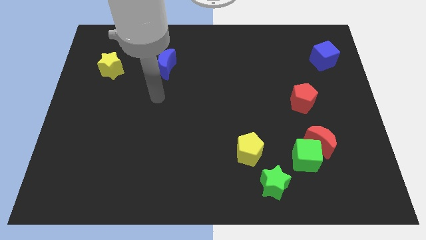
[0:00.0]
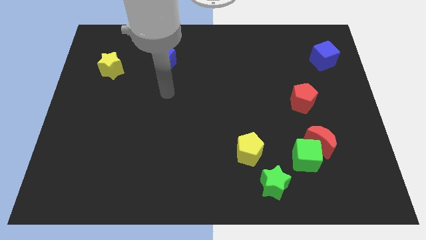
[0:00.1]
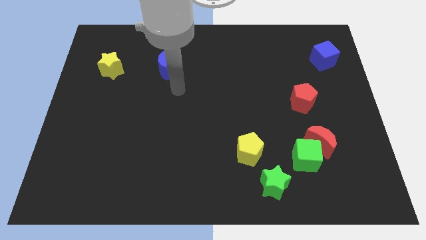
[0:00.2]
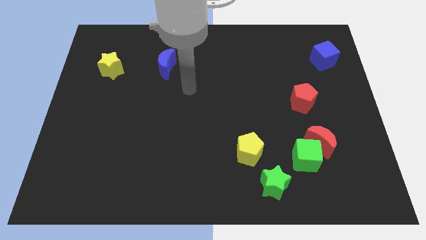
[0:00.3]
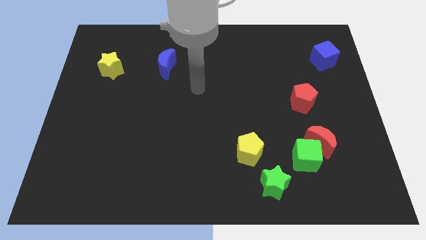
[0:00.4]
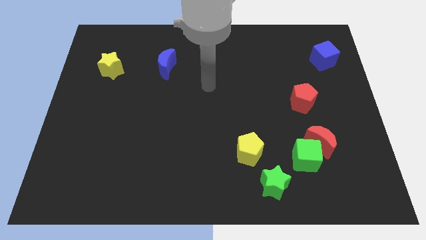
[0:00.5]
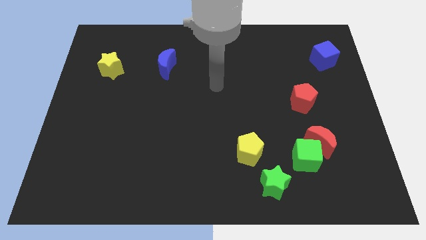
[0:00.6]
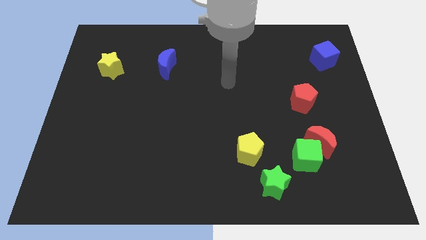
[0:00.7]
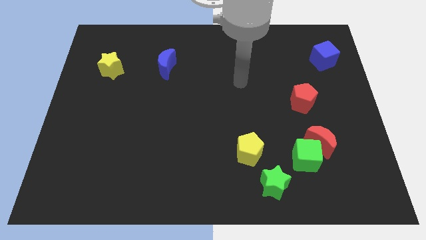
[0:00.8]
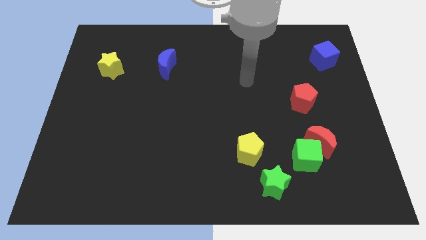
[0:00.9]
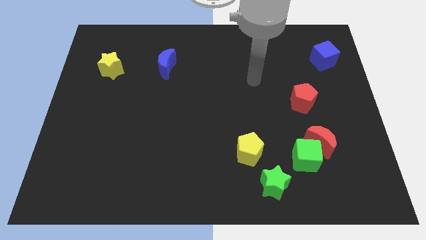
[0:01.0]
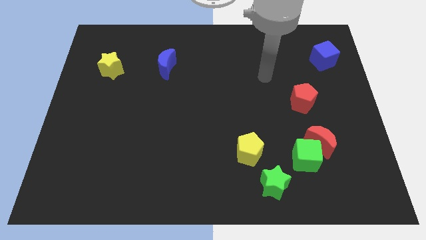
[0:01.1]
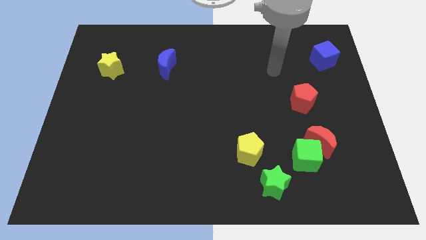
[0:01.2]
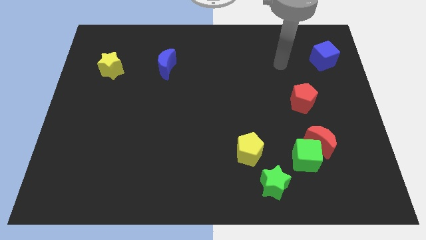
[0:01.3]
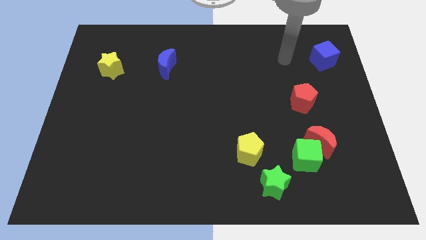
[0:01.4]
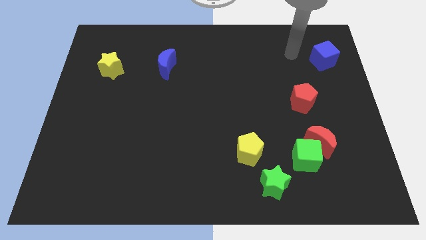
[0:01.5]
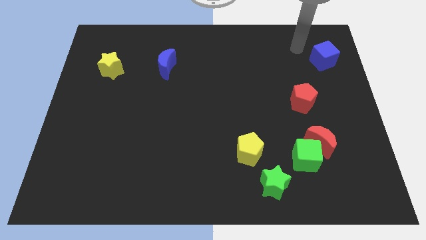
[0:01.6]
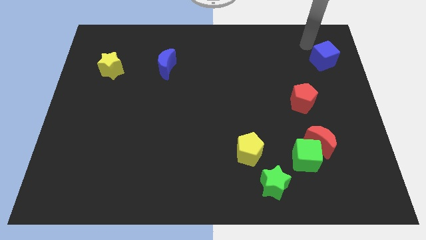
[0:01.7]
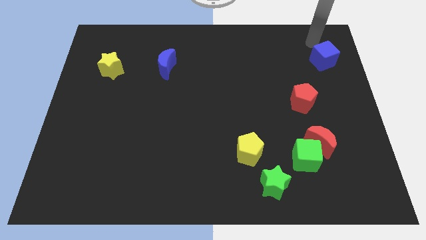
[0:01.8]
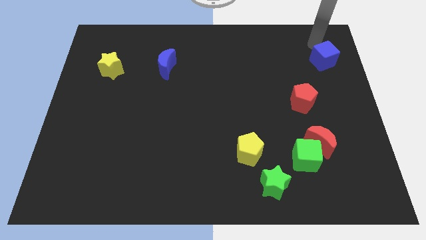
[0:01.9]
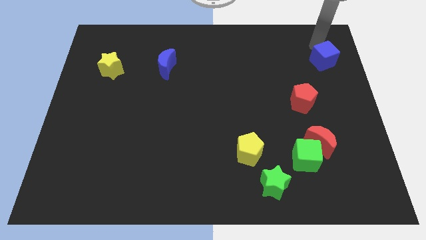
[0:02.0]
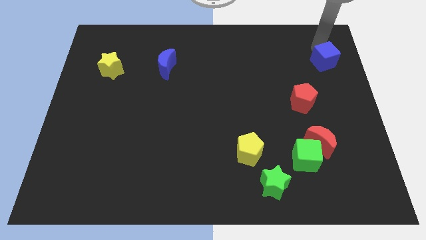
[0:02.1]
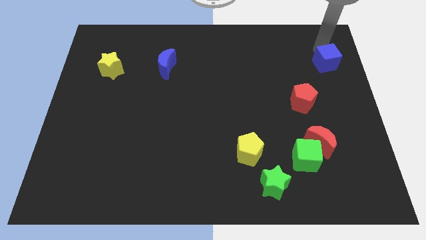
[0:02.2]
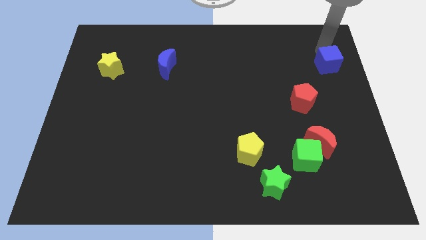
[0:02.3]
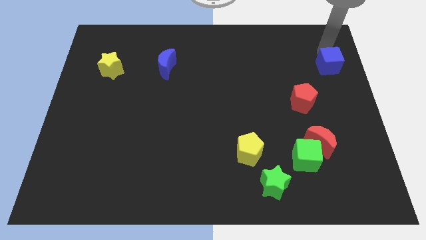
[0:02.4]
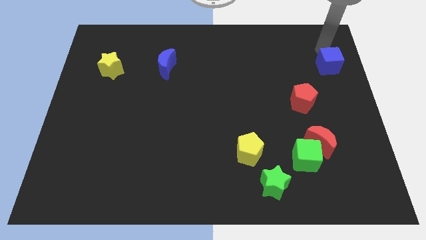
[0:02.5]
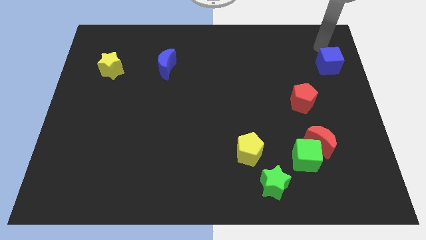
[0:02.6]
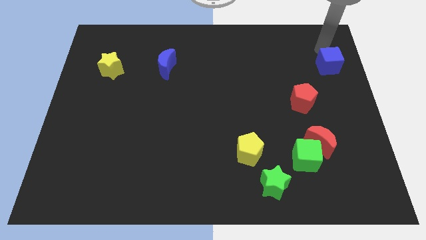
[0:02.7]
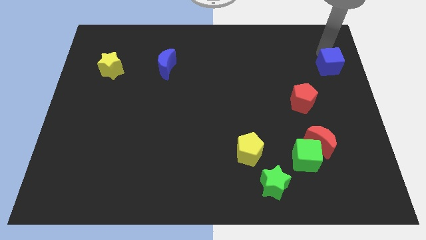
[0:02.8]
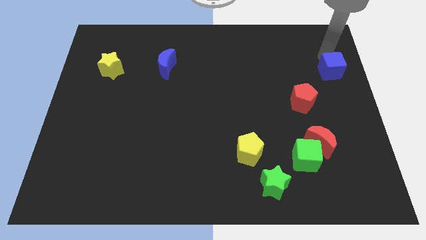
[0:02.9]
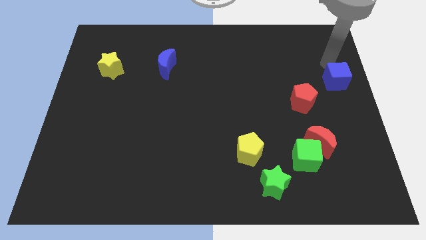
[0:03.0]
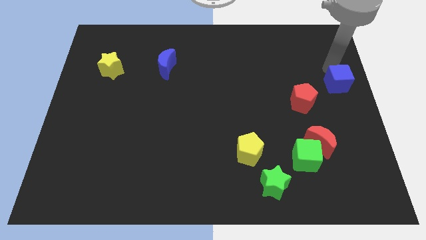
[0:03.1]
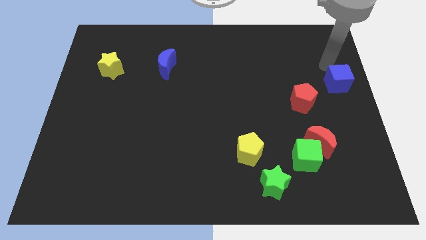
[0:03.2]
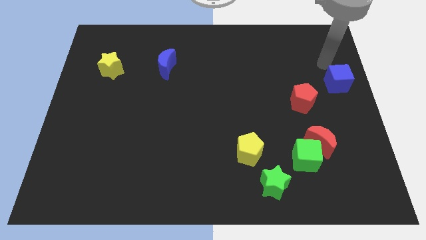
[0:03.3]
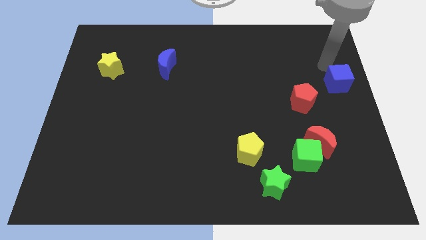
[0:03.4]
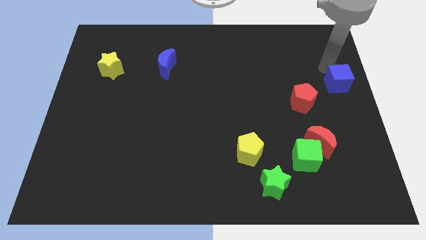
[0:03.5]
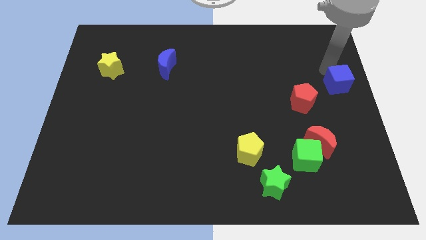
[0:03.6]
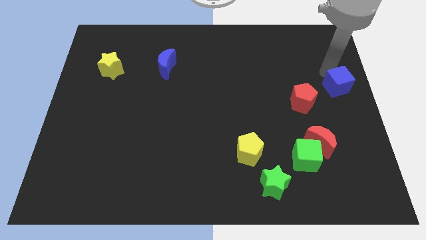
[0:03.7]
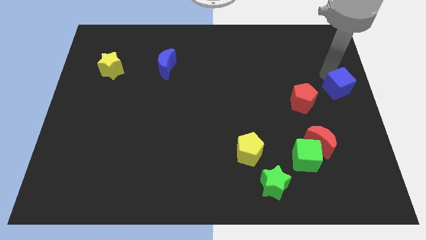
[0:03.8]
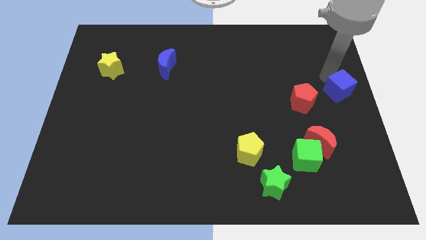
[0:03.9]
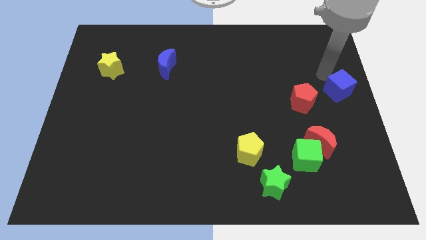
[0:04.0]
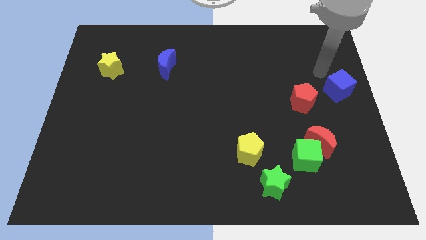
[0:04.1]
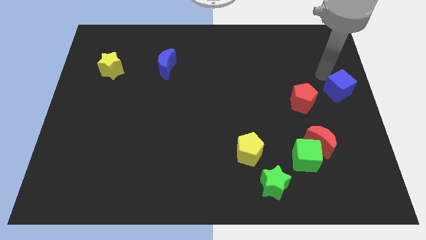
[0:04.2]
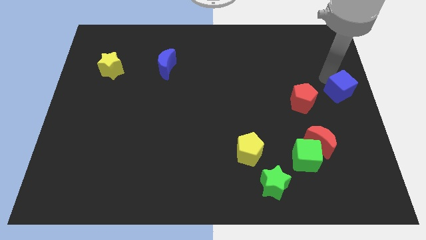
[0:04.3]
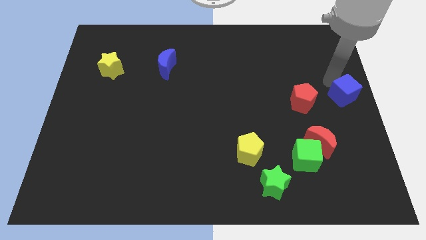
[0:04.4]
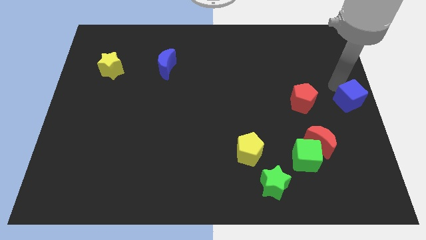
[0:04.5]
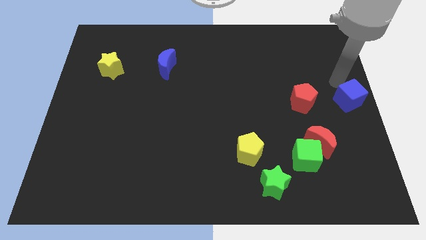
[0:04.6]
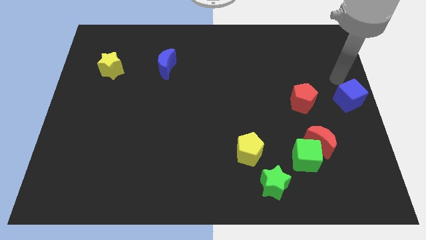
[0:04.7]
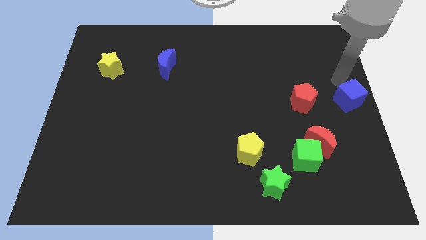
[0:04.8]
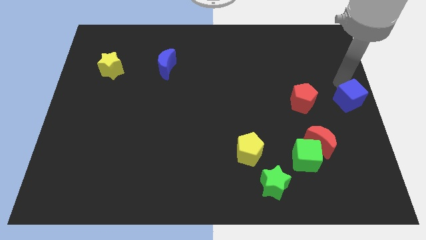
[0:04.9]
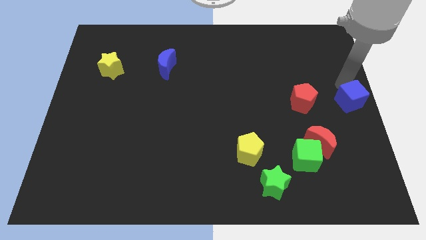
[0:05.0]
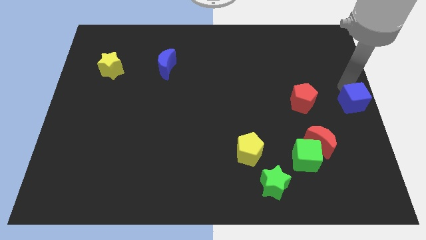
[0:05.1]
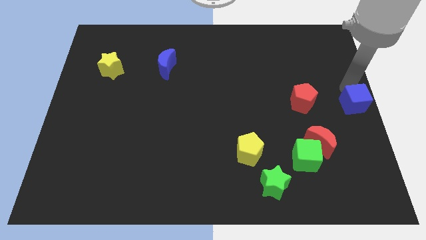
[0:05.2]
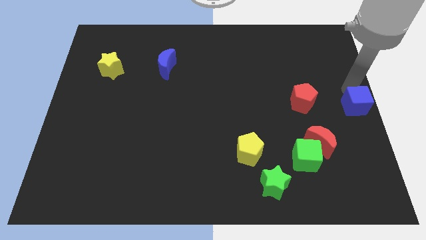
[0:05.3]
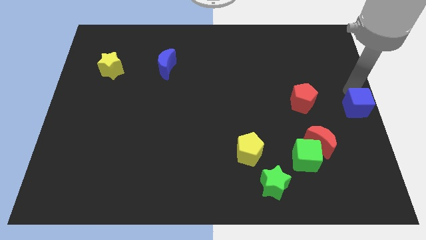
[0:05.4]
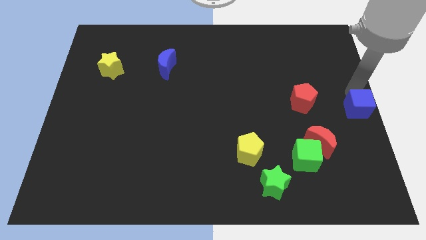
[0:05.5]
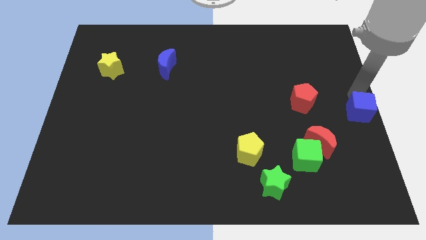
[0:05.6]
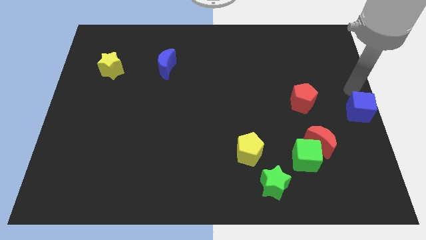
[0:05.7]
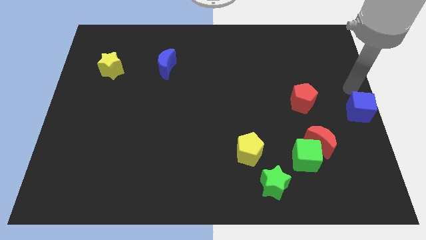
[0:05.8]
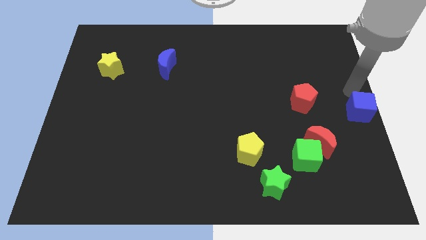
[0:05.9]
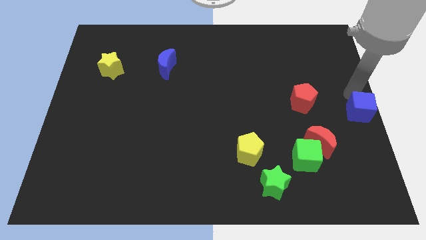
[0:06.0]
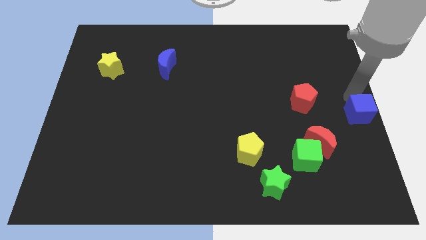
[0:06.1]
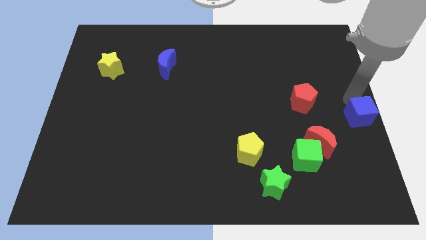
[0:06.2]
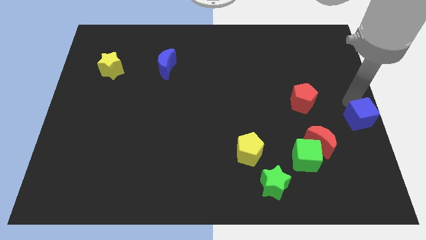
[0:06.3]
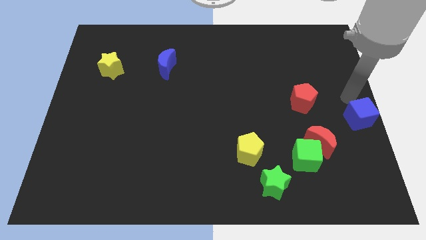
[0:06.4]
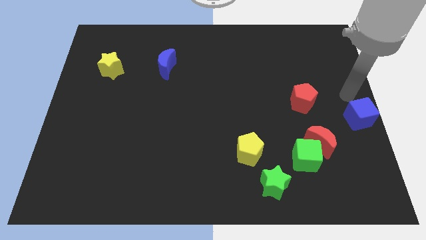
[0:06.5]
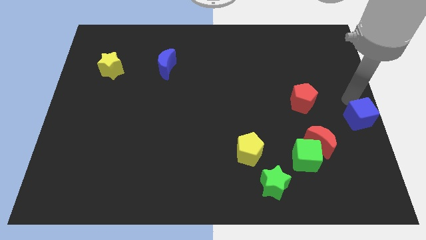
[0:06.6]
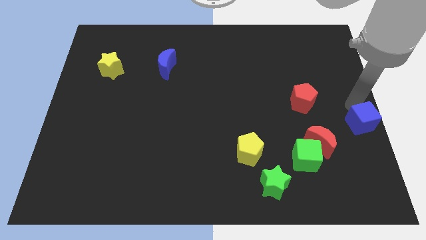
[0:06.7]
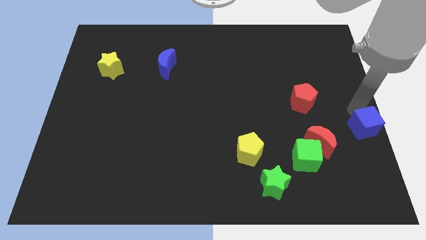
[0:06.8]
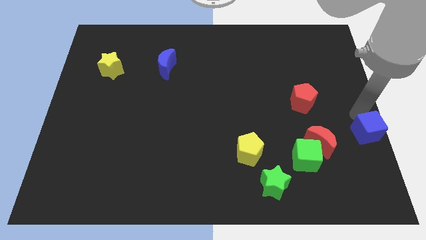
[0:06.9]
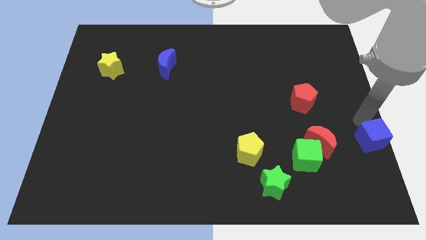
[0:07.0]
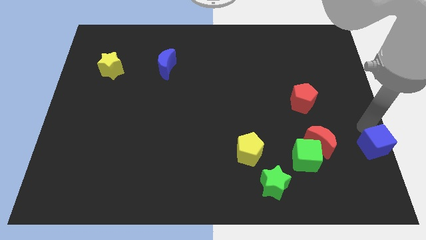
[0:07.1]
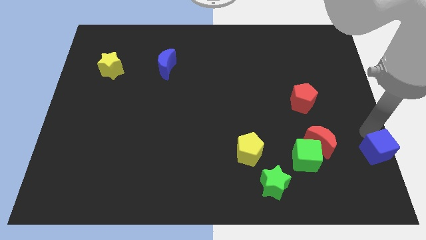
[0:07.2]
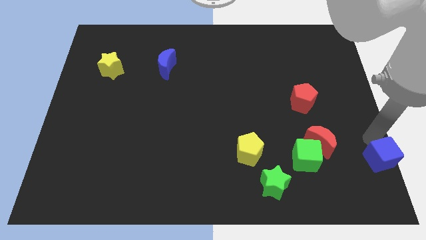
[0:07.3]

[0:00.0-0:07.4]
put the blue cube to the bottom right
